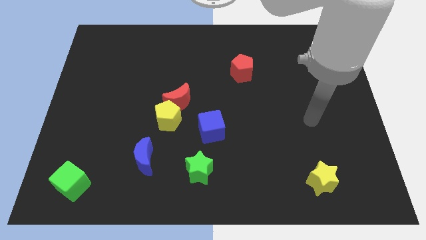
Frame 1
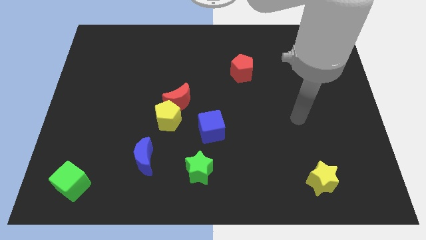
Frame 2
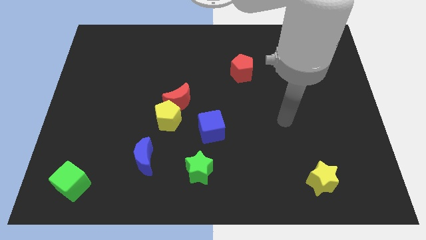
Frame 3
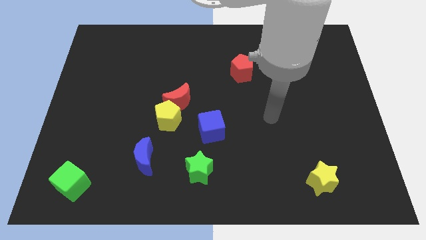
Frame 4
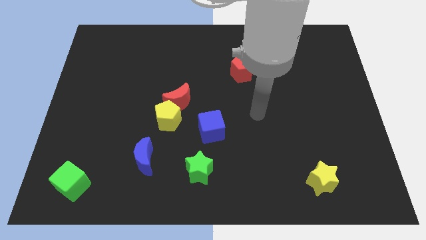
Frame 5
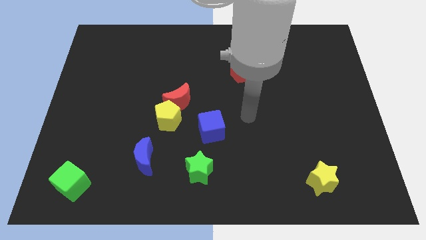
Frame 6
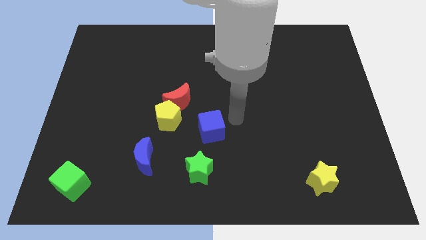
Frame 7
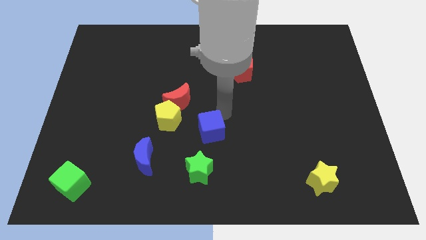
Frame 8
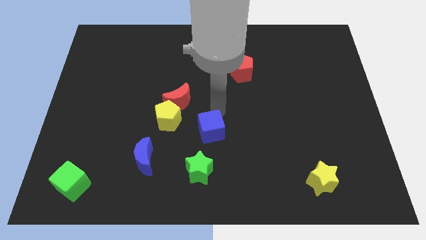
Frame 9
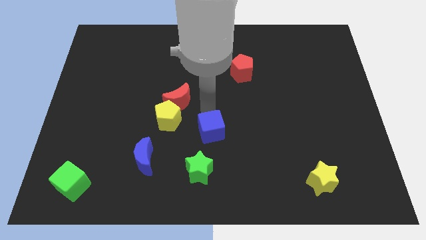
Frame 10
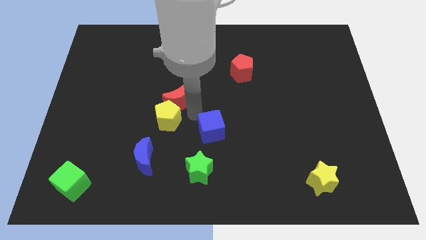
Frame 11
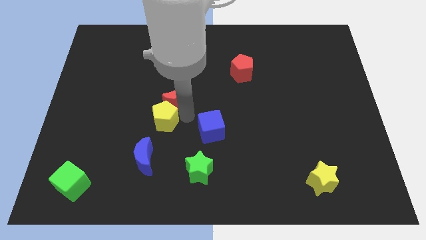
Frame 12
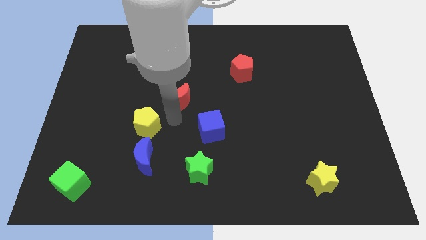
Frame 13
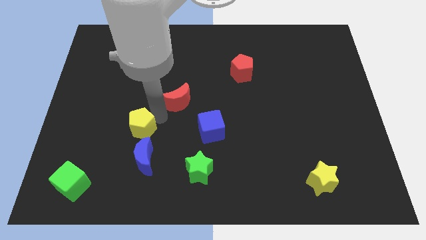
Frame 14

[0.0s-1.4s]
move the red moon away from the yellow pentagon

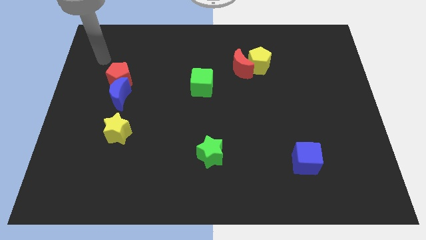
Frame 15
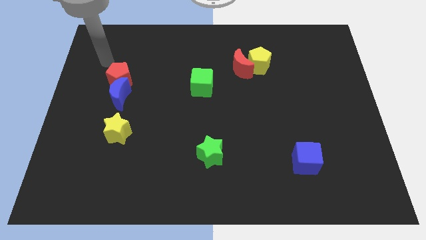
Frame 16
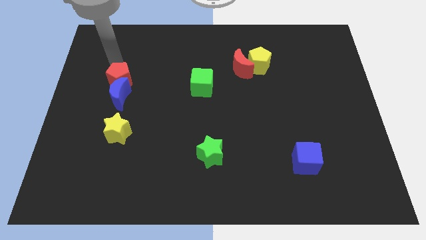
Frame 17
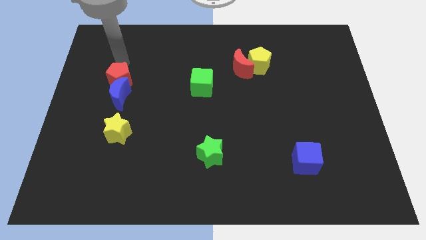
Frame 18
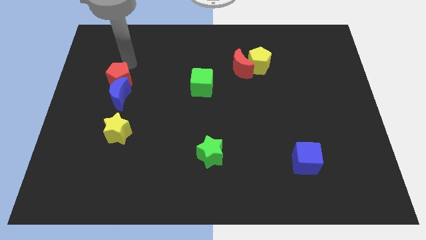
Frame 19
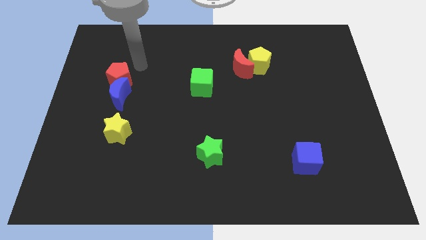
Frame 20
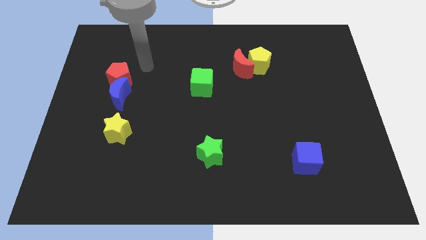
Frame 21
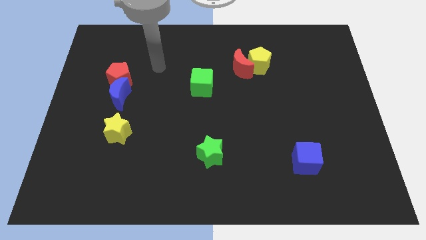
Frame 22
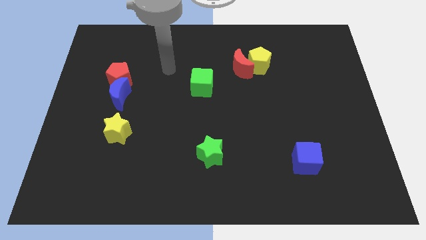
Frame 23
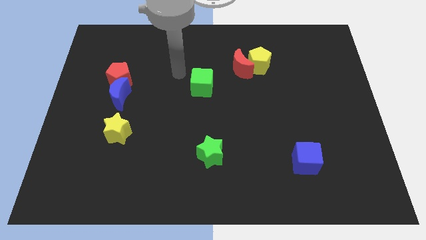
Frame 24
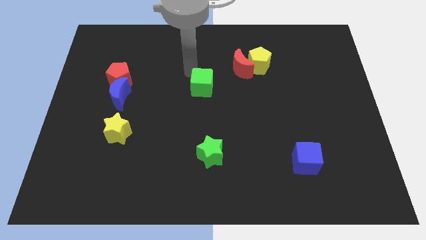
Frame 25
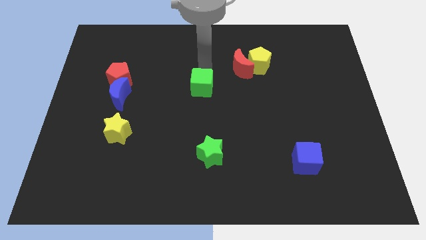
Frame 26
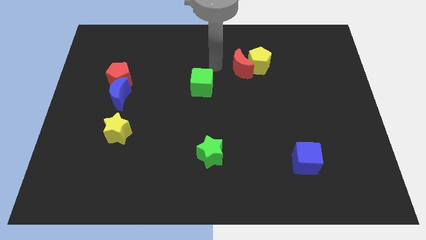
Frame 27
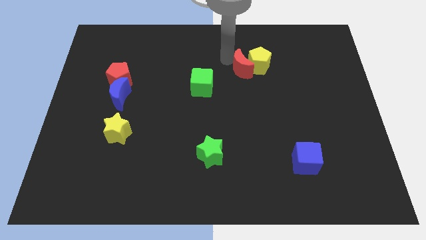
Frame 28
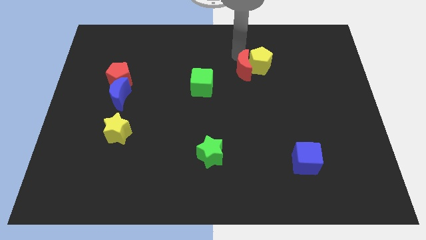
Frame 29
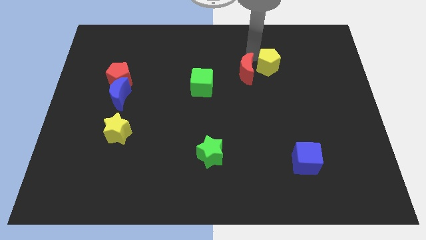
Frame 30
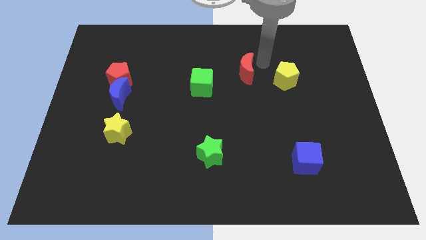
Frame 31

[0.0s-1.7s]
separate the red moon from the yellow pentagon

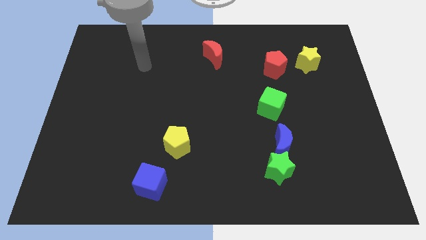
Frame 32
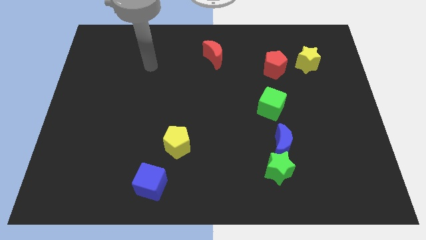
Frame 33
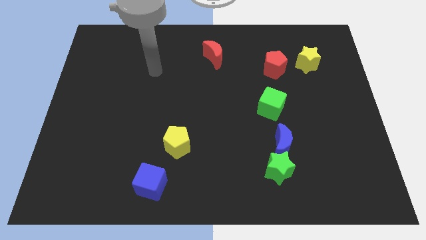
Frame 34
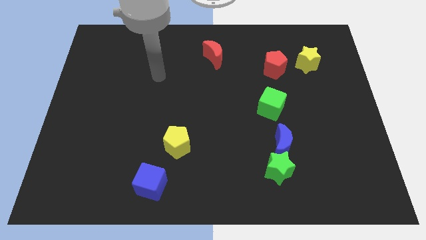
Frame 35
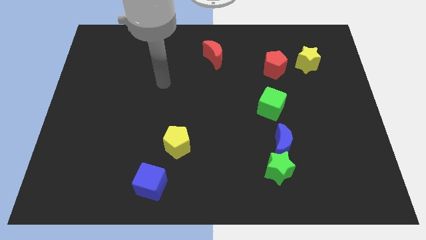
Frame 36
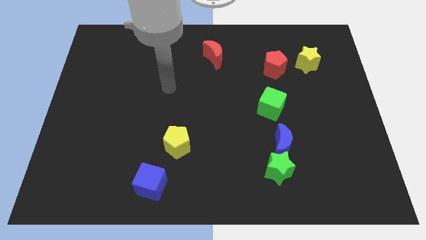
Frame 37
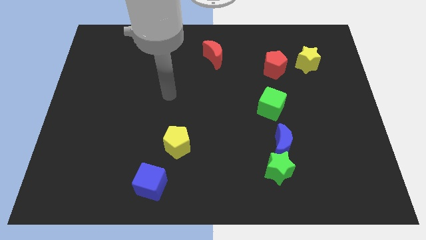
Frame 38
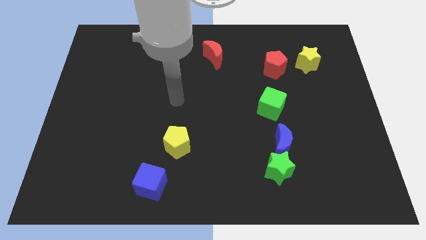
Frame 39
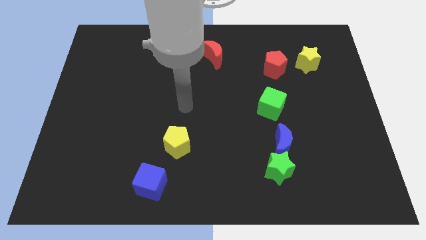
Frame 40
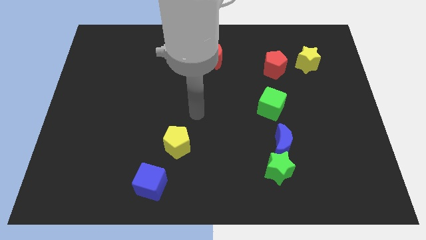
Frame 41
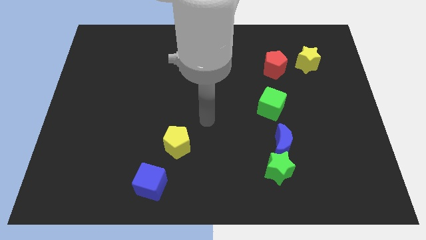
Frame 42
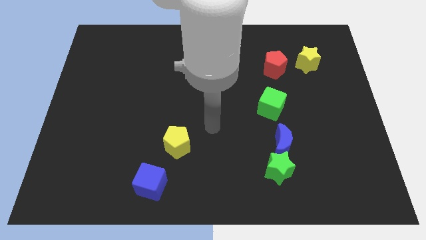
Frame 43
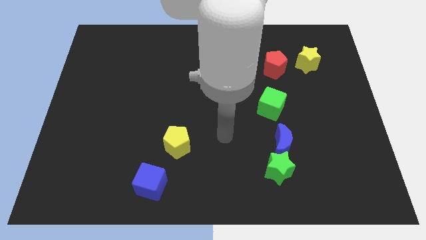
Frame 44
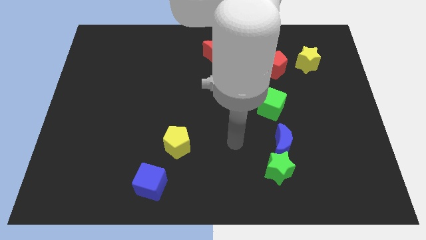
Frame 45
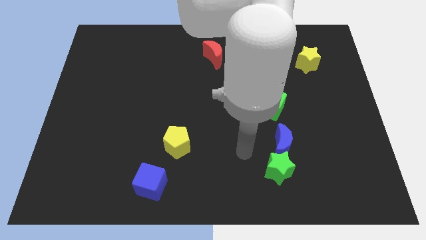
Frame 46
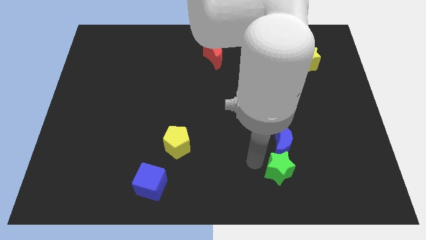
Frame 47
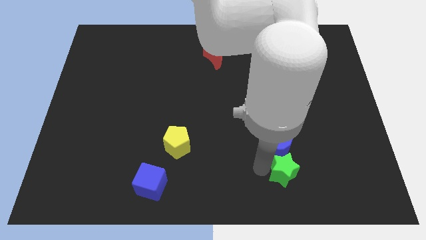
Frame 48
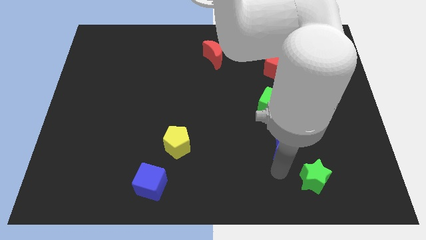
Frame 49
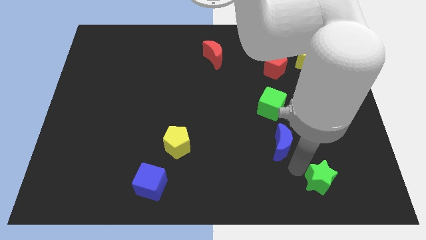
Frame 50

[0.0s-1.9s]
move the blue moon away from the green star

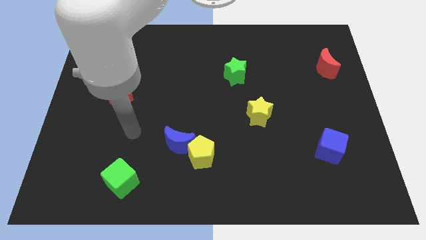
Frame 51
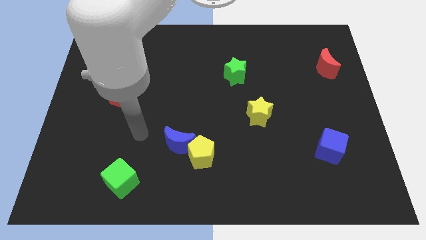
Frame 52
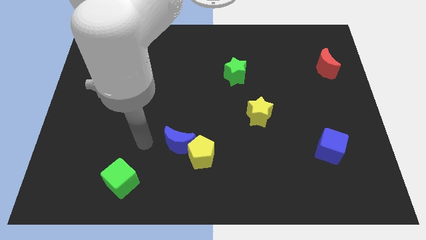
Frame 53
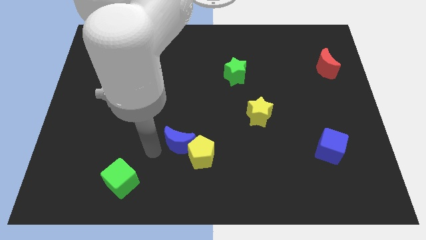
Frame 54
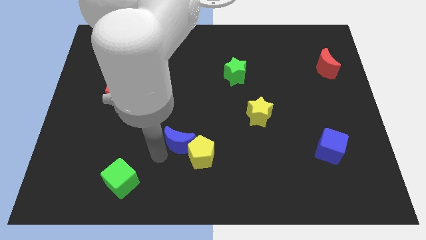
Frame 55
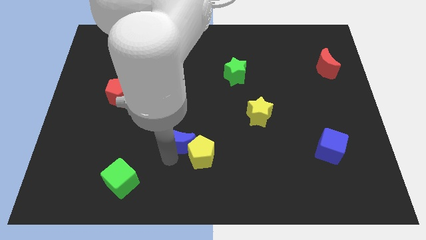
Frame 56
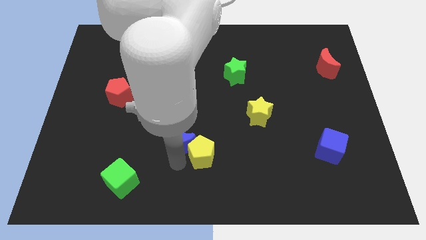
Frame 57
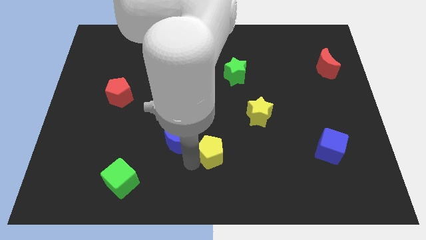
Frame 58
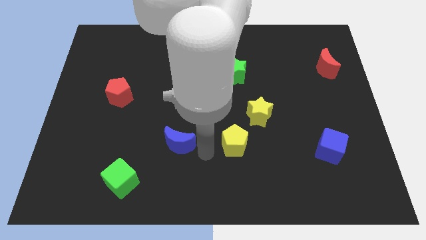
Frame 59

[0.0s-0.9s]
pull the blue moon apart from the yellow pentagon

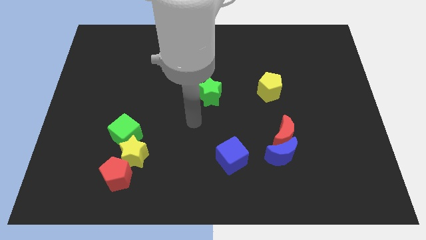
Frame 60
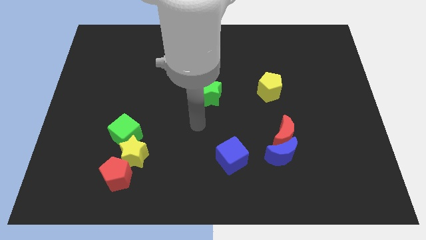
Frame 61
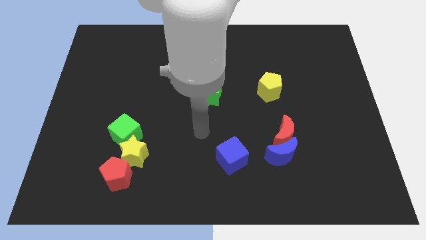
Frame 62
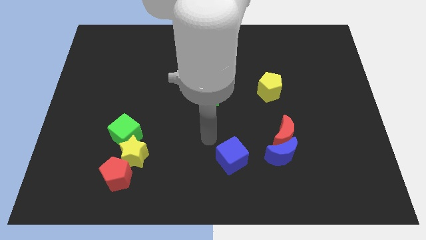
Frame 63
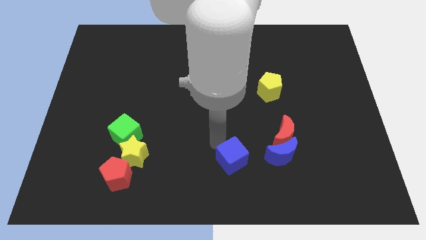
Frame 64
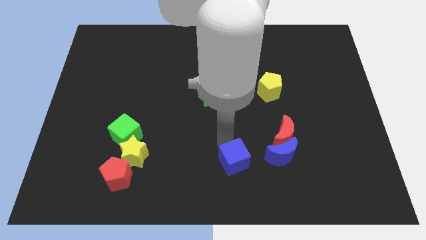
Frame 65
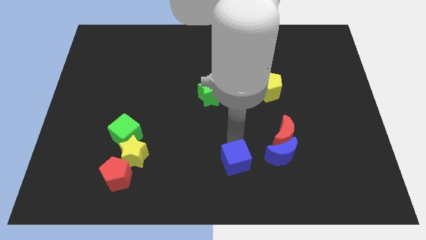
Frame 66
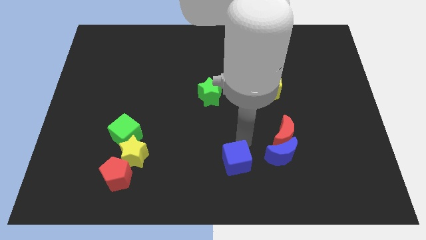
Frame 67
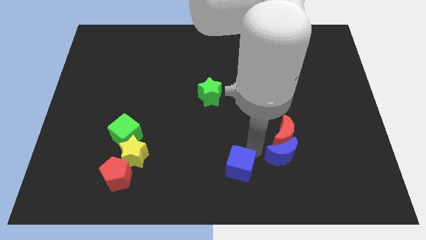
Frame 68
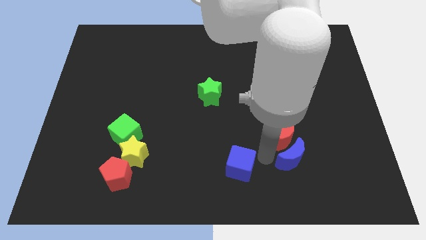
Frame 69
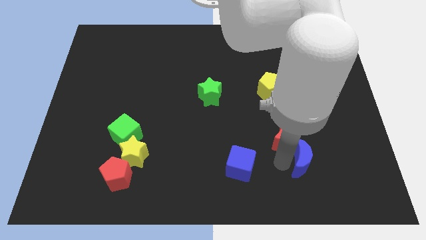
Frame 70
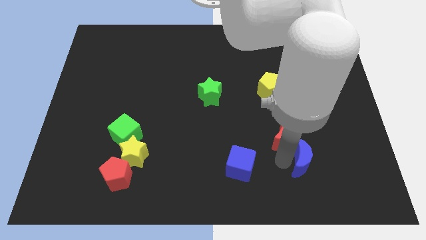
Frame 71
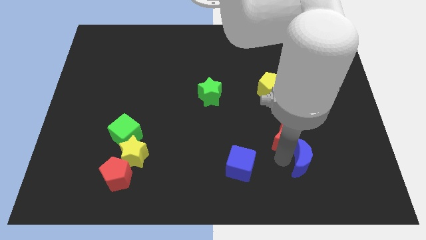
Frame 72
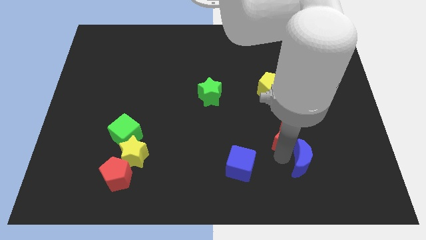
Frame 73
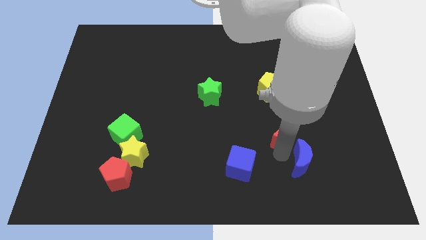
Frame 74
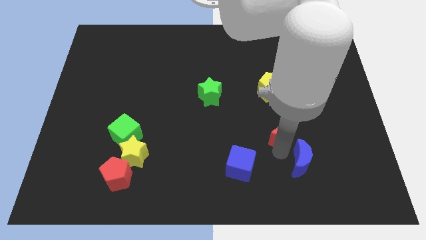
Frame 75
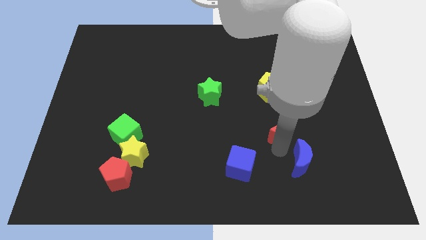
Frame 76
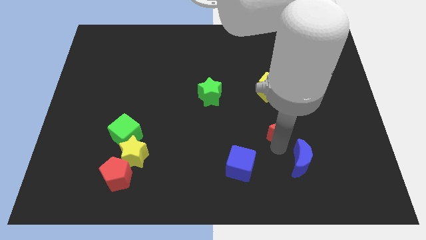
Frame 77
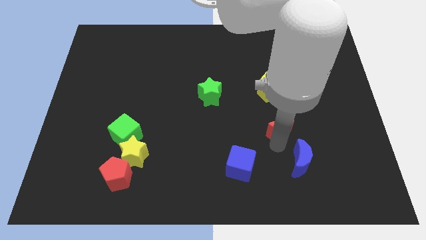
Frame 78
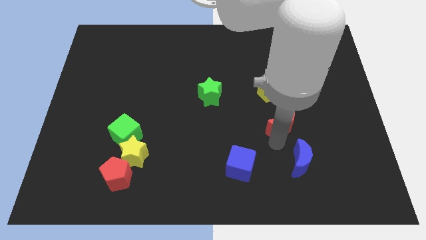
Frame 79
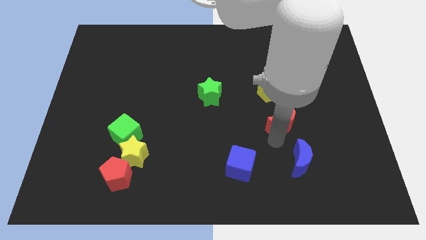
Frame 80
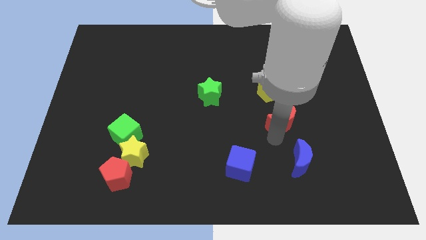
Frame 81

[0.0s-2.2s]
separate the red moon from the blue moon

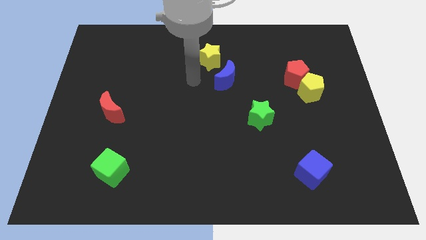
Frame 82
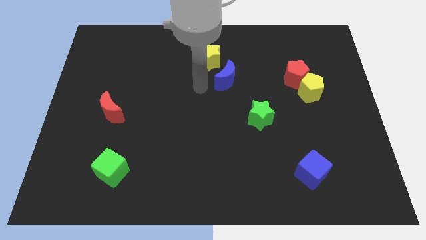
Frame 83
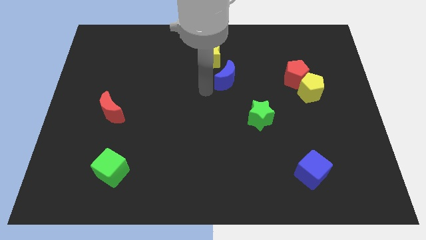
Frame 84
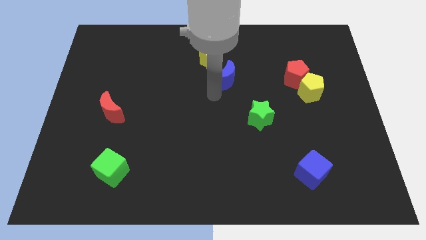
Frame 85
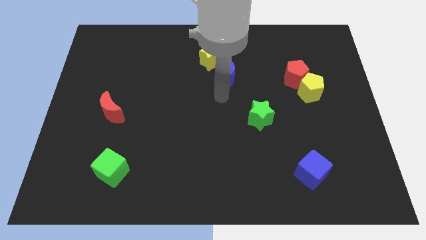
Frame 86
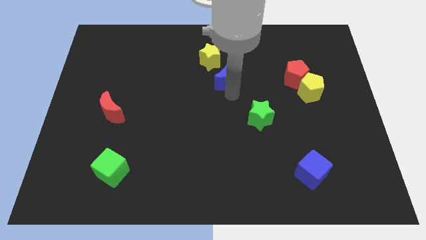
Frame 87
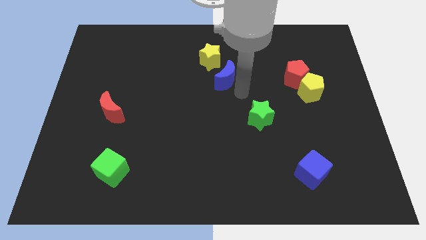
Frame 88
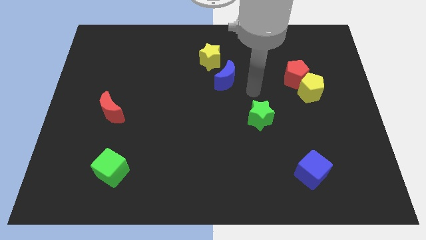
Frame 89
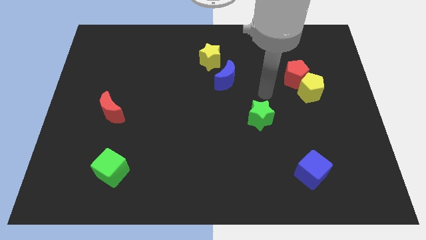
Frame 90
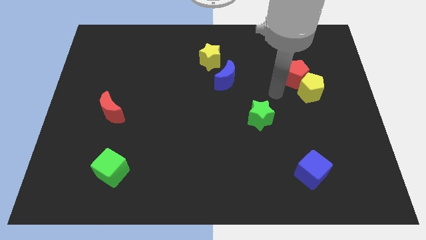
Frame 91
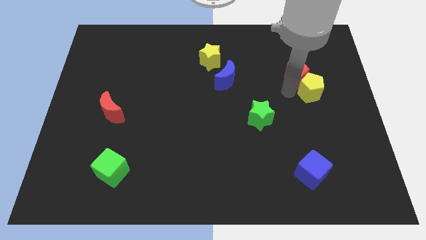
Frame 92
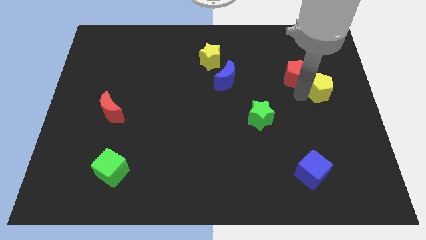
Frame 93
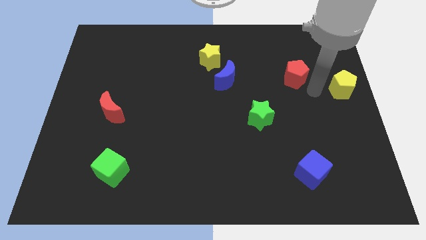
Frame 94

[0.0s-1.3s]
pull the red pentagon apart from the yellow pentagon
